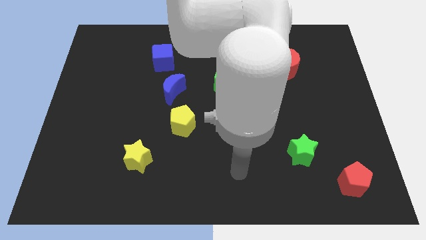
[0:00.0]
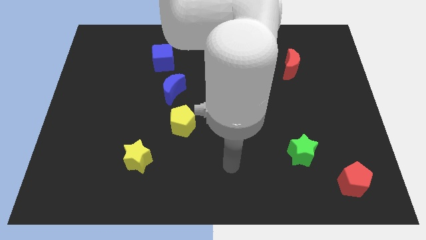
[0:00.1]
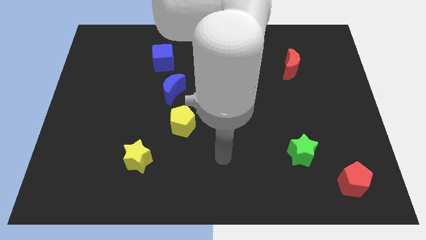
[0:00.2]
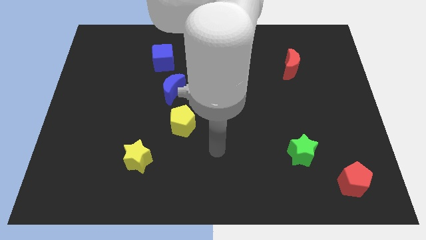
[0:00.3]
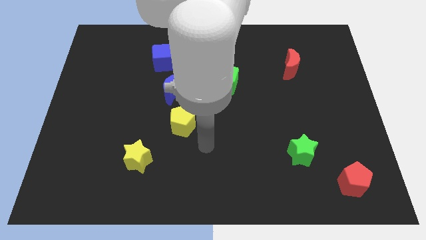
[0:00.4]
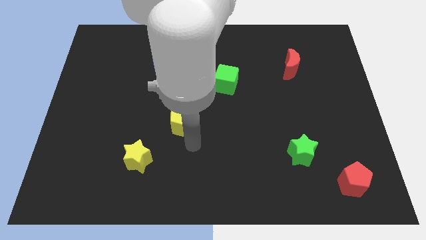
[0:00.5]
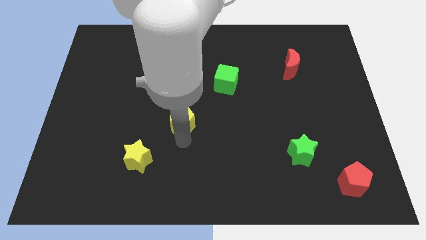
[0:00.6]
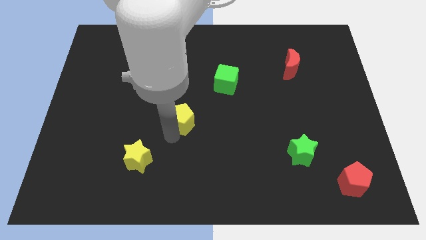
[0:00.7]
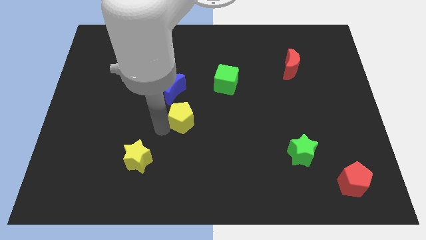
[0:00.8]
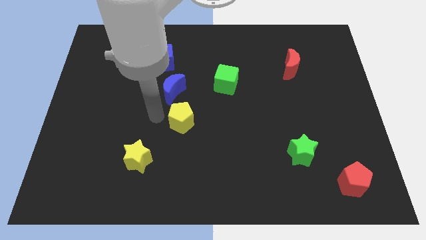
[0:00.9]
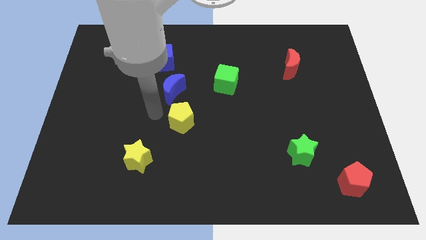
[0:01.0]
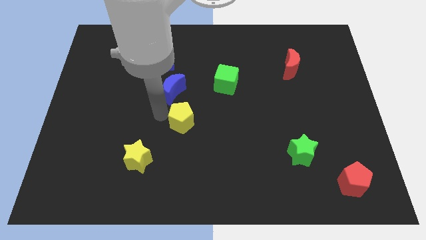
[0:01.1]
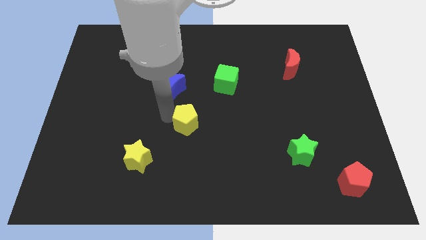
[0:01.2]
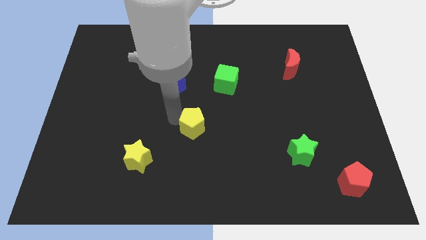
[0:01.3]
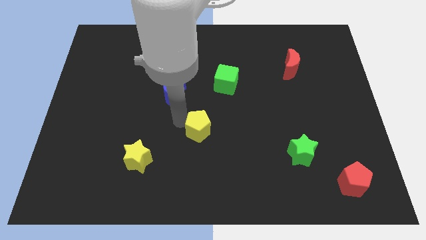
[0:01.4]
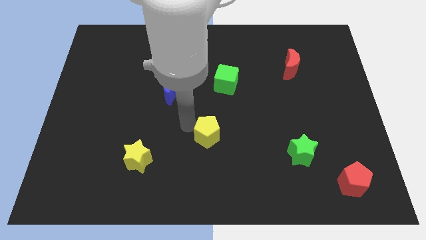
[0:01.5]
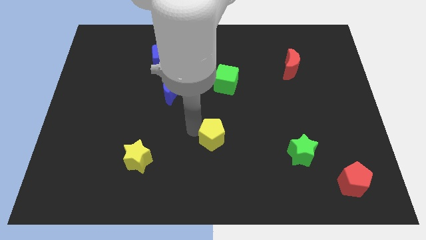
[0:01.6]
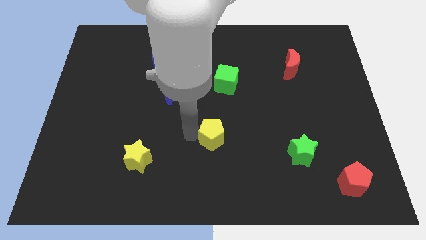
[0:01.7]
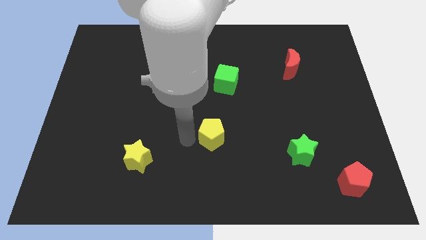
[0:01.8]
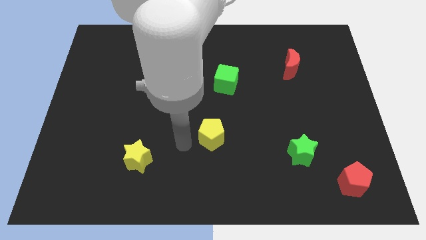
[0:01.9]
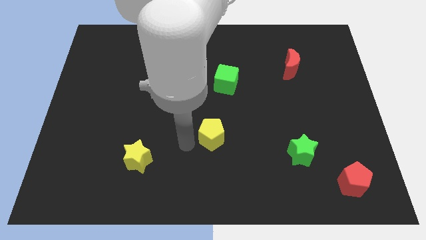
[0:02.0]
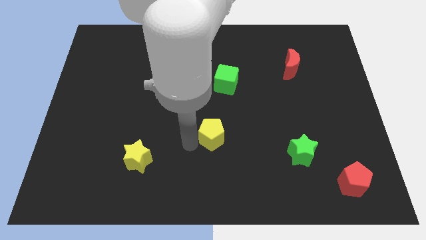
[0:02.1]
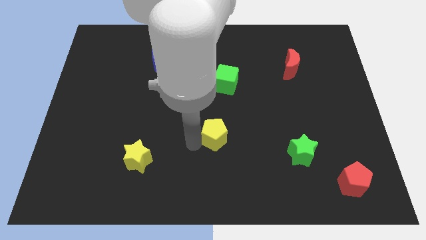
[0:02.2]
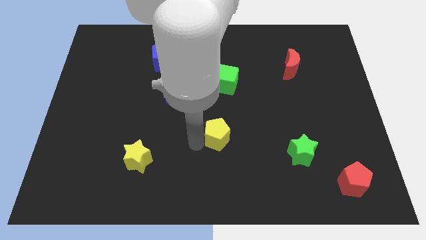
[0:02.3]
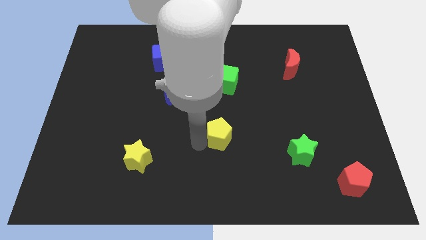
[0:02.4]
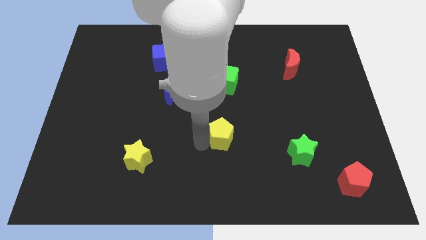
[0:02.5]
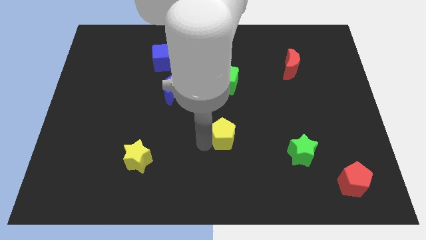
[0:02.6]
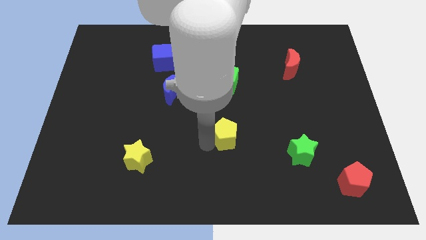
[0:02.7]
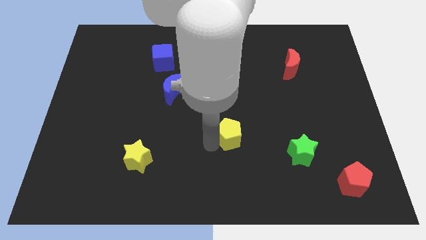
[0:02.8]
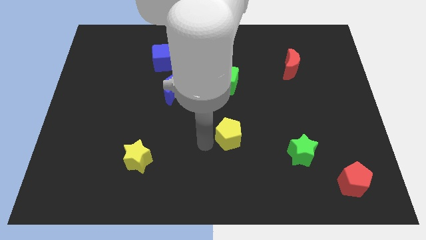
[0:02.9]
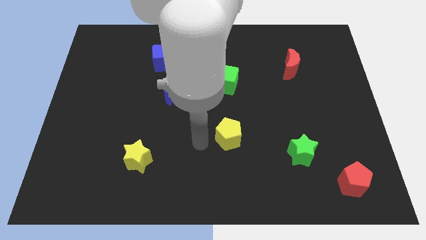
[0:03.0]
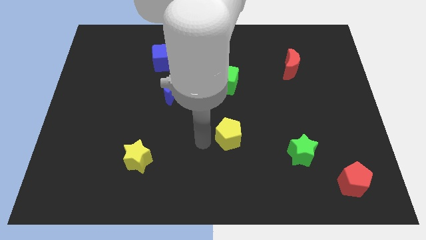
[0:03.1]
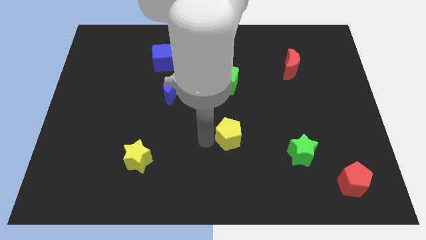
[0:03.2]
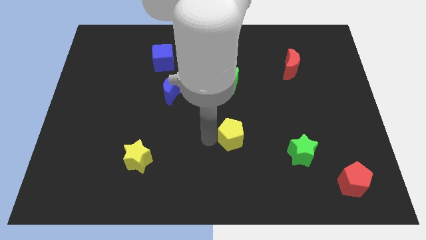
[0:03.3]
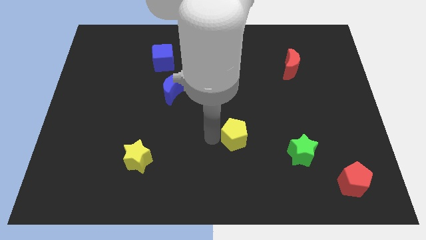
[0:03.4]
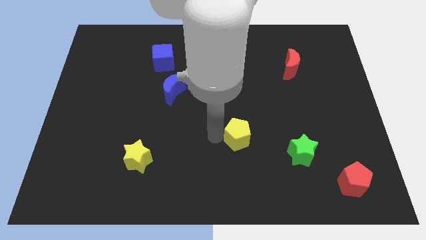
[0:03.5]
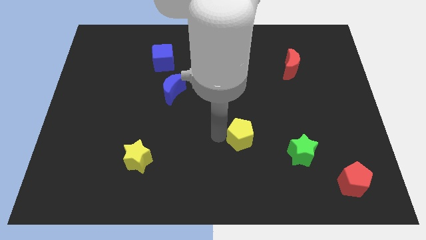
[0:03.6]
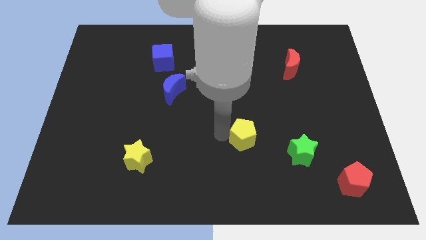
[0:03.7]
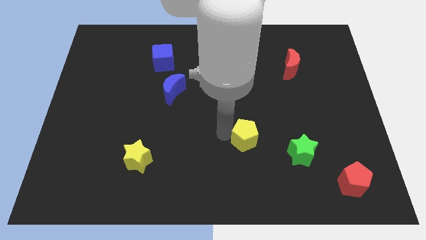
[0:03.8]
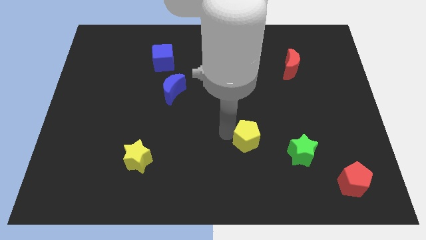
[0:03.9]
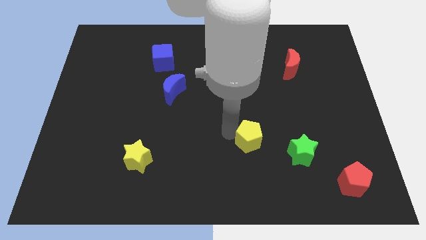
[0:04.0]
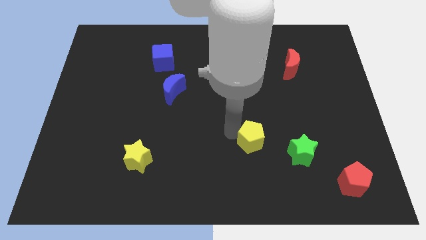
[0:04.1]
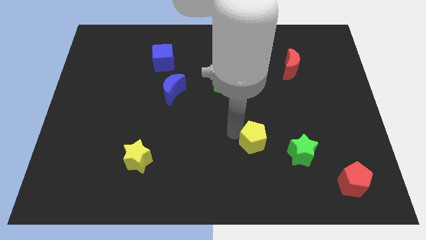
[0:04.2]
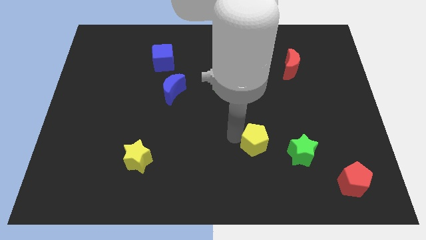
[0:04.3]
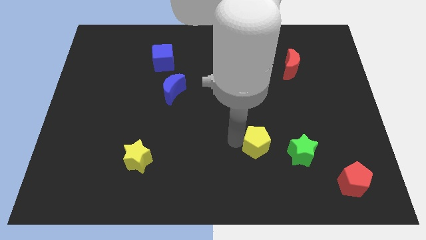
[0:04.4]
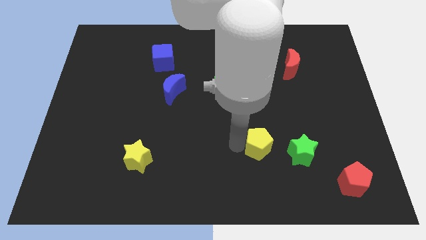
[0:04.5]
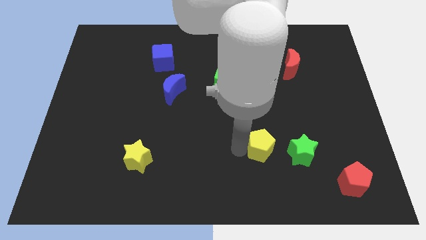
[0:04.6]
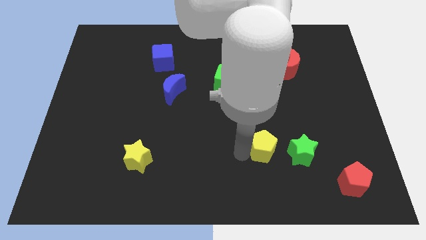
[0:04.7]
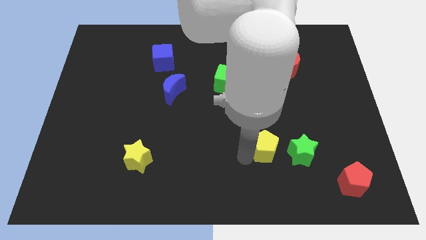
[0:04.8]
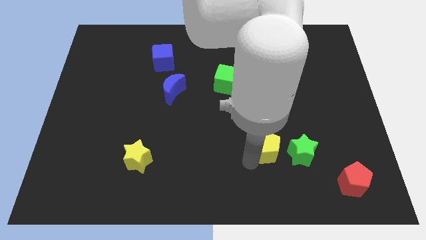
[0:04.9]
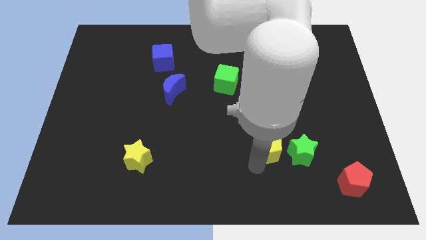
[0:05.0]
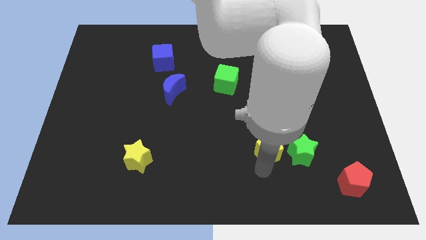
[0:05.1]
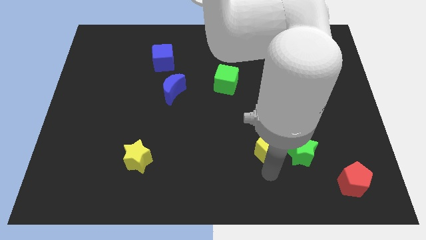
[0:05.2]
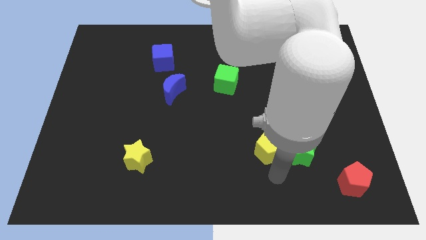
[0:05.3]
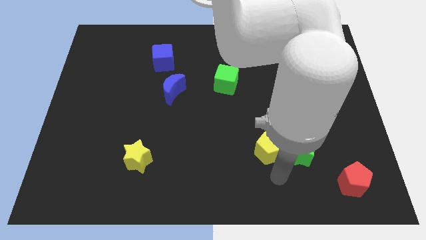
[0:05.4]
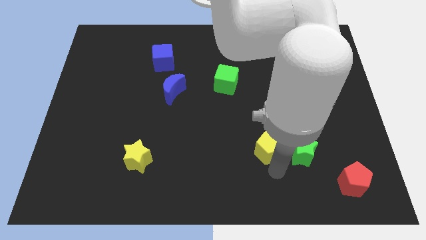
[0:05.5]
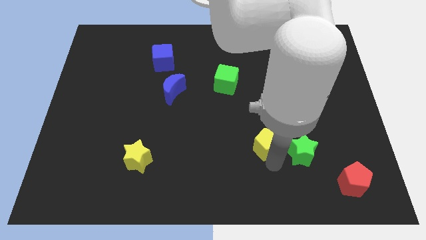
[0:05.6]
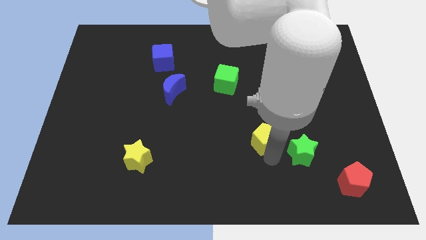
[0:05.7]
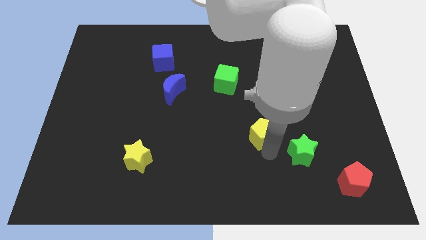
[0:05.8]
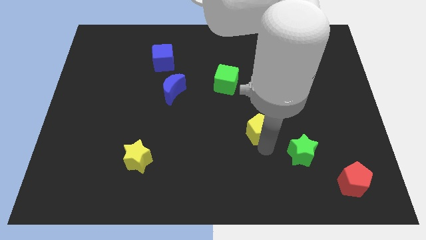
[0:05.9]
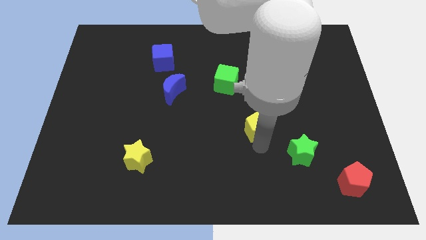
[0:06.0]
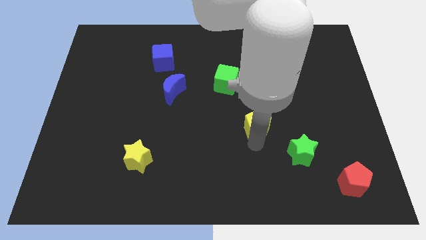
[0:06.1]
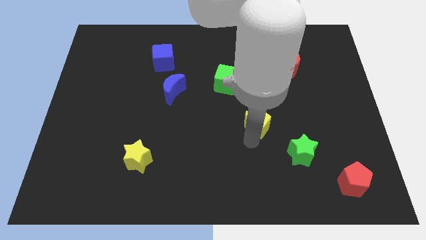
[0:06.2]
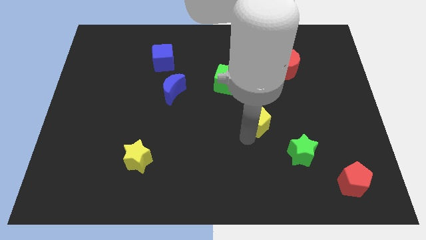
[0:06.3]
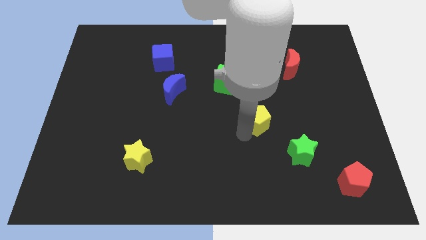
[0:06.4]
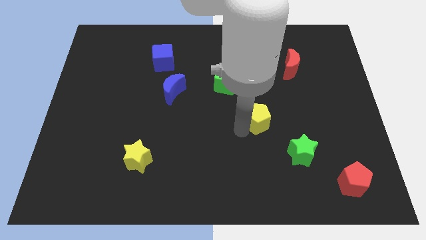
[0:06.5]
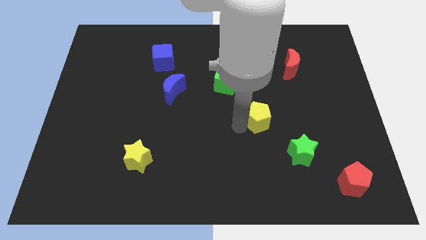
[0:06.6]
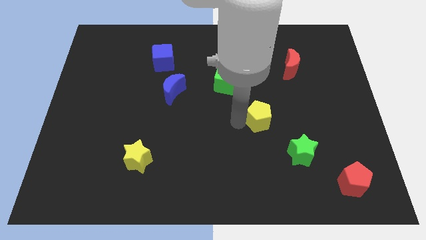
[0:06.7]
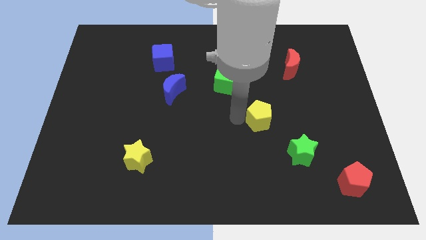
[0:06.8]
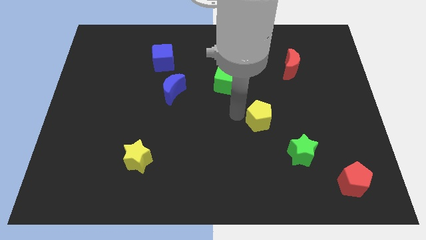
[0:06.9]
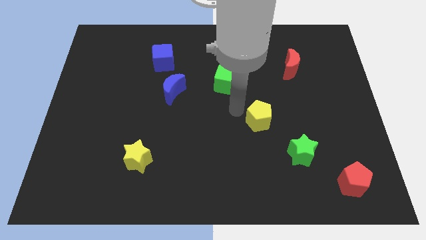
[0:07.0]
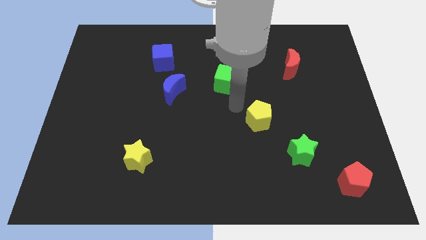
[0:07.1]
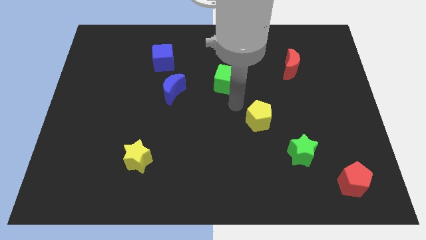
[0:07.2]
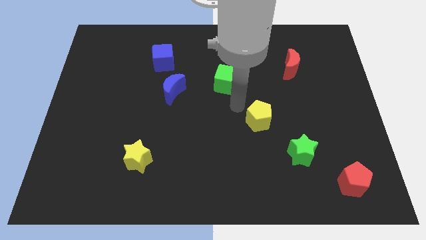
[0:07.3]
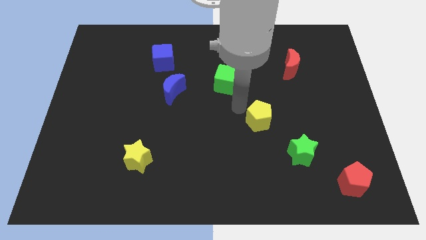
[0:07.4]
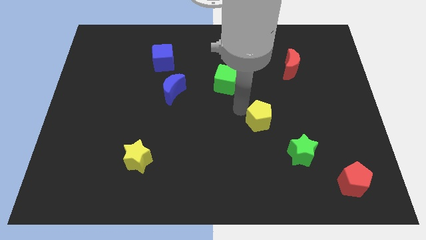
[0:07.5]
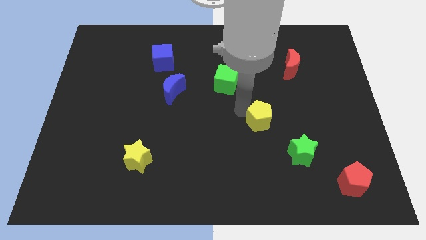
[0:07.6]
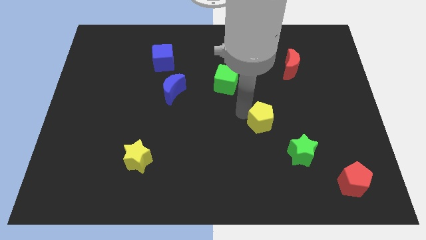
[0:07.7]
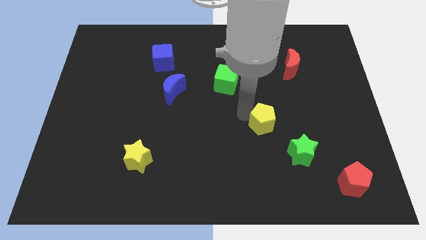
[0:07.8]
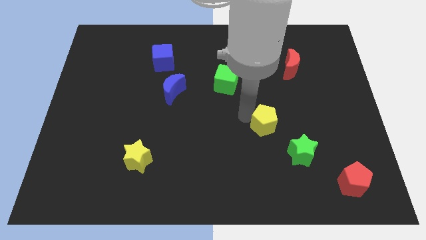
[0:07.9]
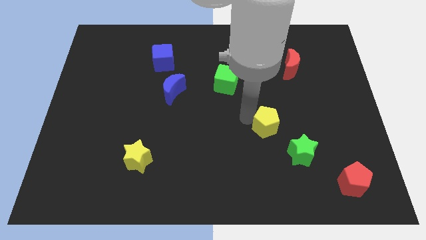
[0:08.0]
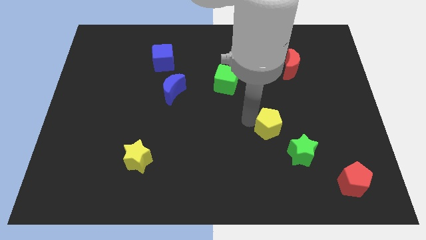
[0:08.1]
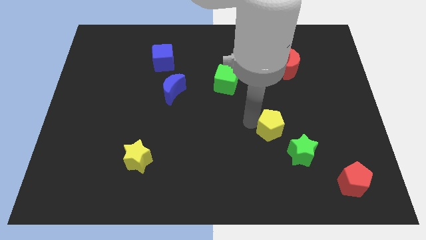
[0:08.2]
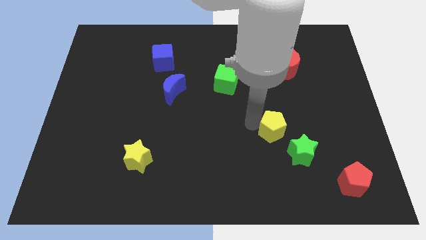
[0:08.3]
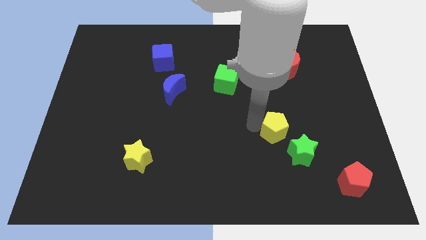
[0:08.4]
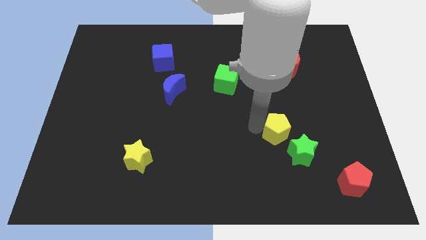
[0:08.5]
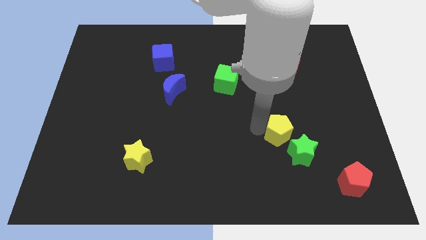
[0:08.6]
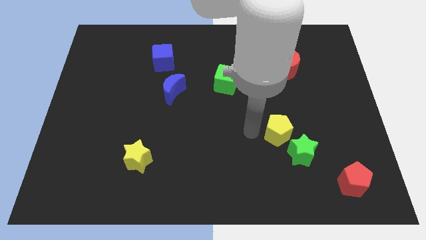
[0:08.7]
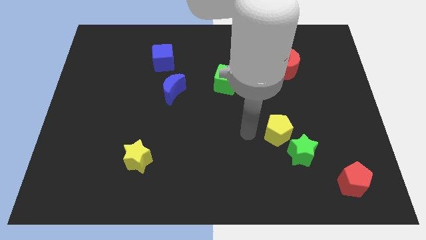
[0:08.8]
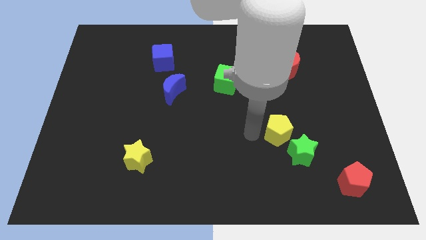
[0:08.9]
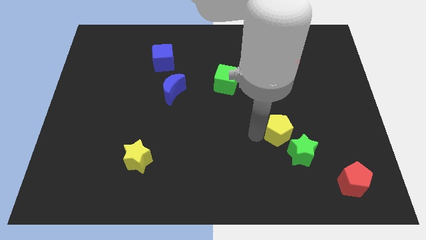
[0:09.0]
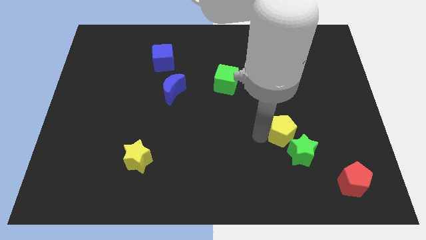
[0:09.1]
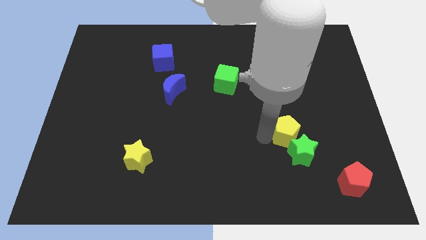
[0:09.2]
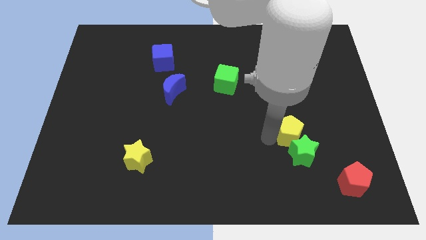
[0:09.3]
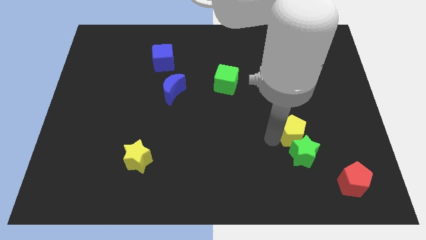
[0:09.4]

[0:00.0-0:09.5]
slide the yellow pentagon to the top right of the green star
